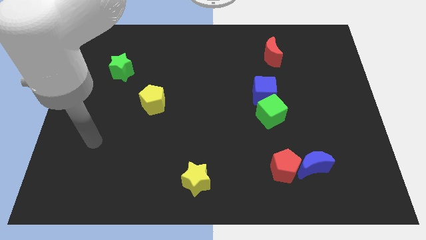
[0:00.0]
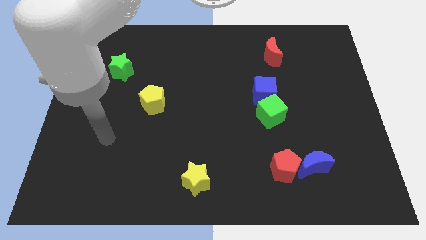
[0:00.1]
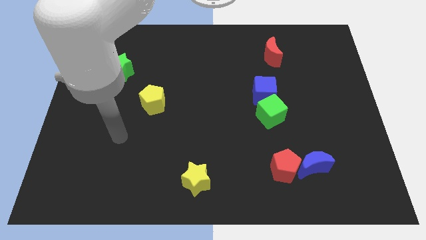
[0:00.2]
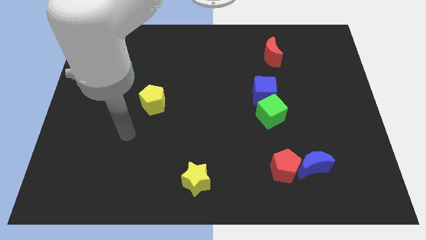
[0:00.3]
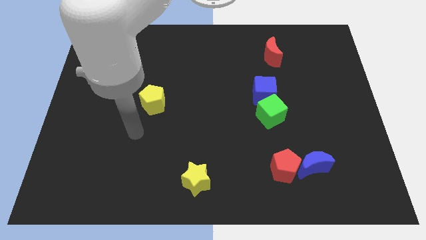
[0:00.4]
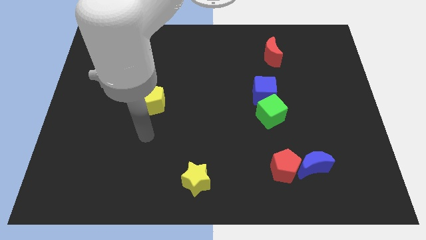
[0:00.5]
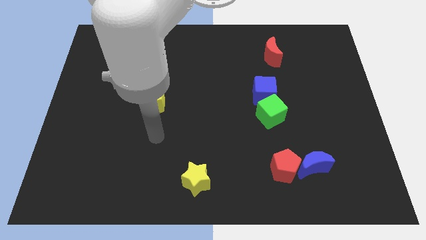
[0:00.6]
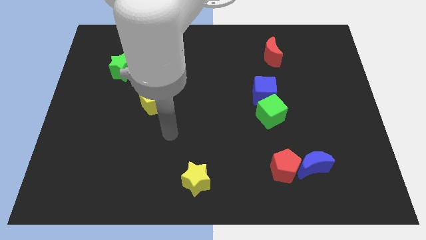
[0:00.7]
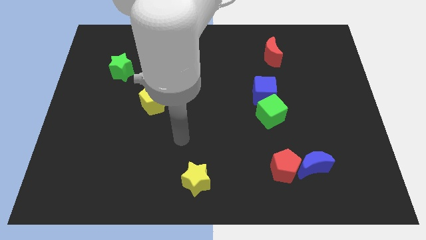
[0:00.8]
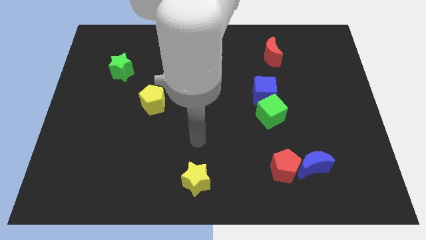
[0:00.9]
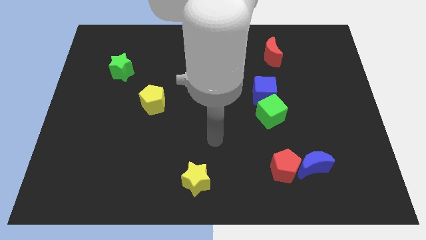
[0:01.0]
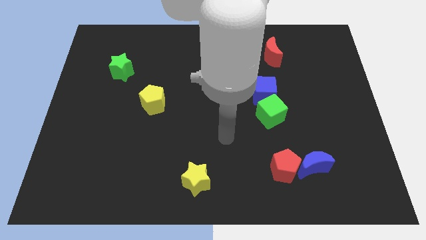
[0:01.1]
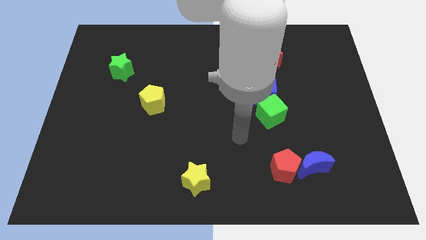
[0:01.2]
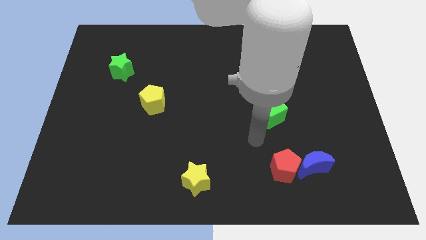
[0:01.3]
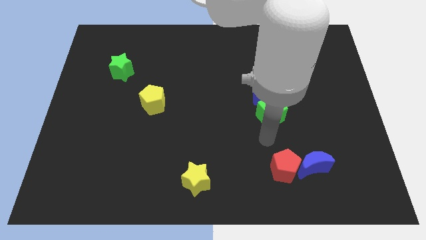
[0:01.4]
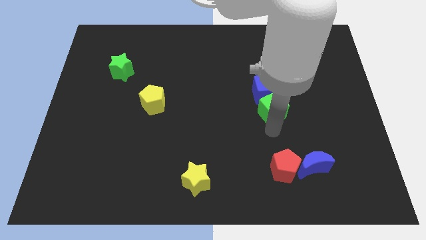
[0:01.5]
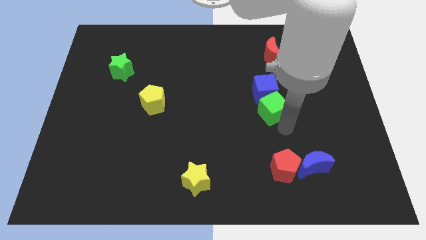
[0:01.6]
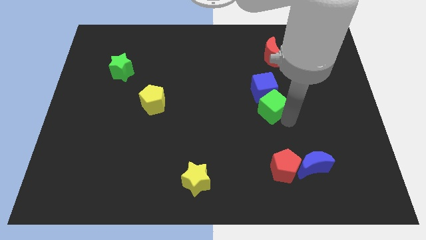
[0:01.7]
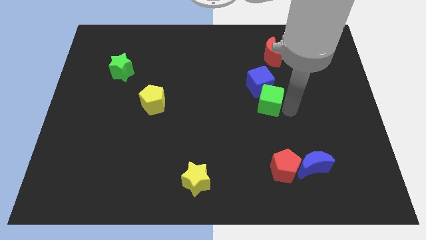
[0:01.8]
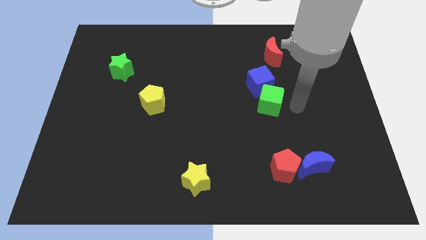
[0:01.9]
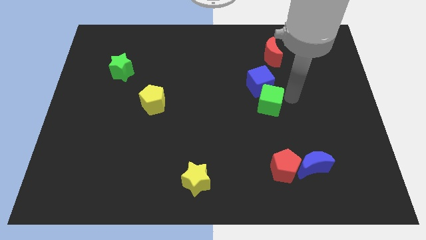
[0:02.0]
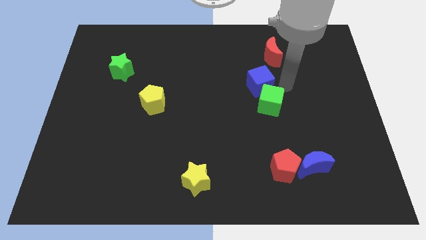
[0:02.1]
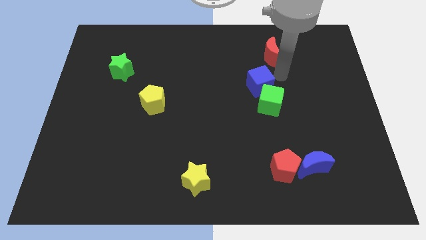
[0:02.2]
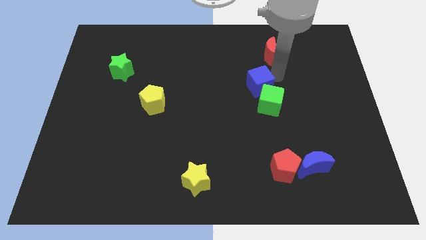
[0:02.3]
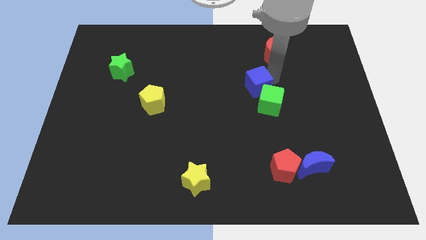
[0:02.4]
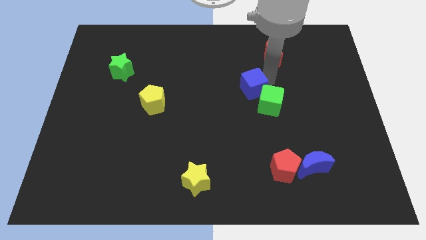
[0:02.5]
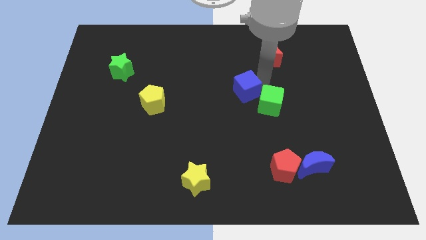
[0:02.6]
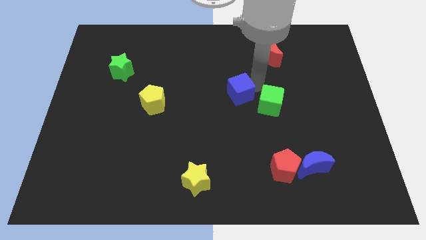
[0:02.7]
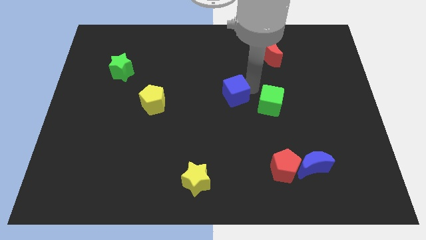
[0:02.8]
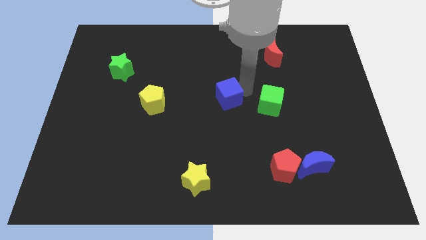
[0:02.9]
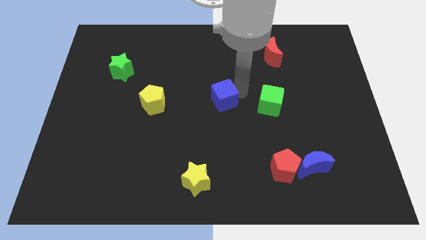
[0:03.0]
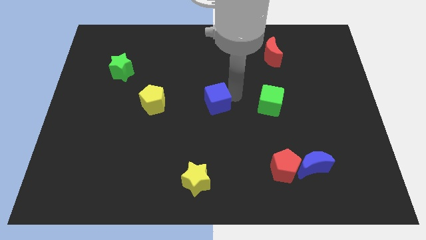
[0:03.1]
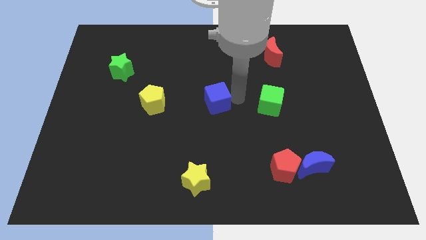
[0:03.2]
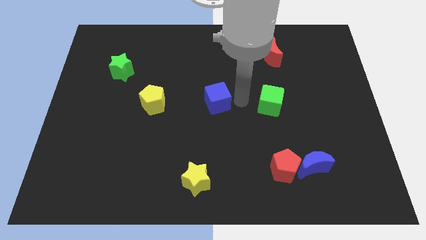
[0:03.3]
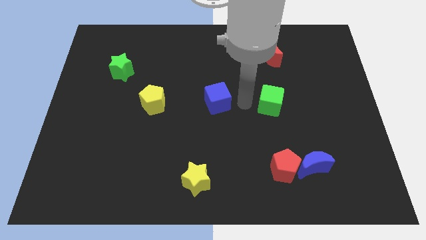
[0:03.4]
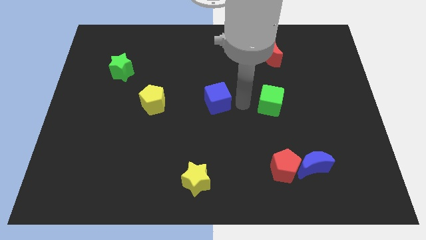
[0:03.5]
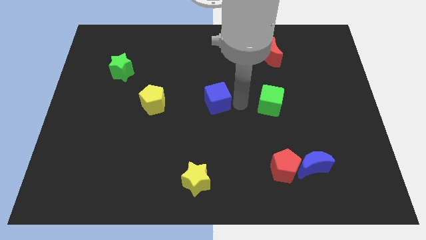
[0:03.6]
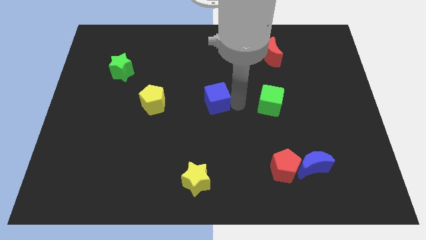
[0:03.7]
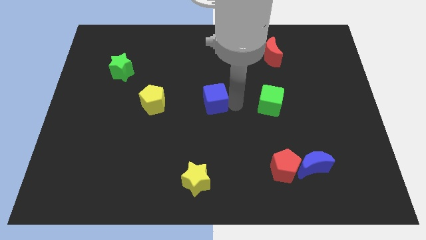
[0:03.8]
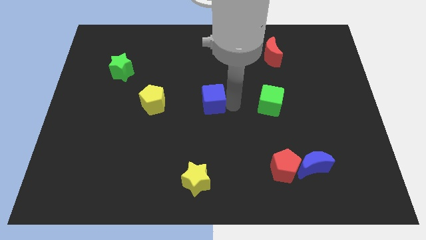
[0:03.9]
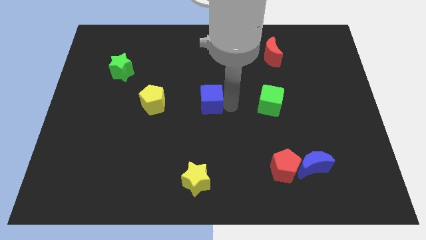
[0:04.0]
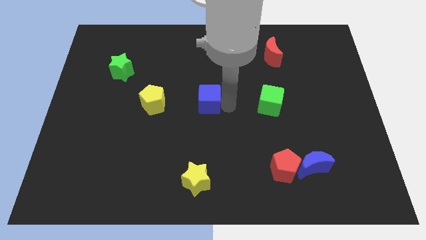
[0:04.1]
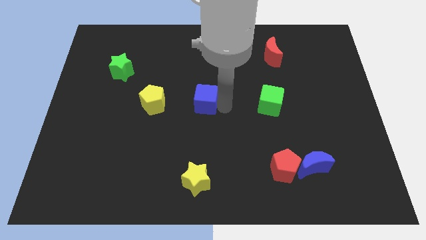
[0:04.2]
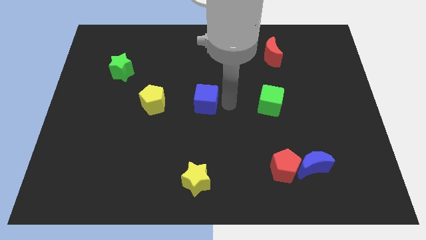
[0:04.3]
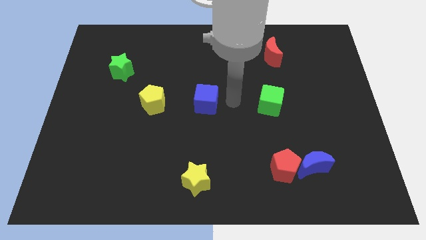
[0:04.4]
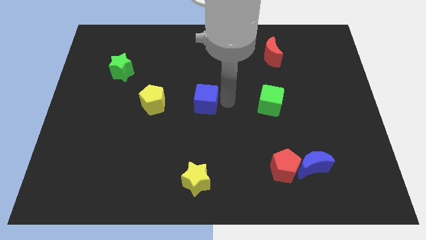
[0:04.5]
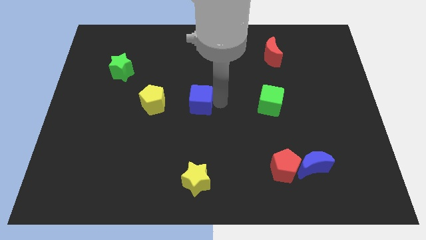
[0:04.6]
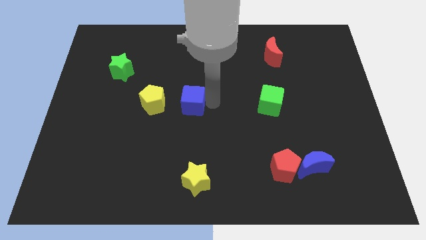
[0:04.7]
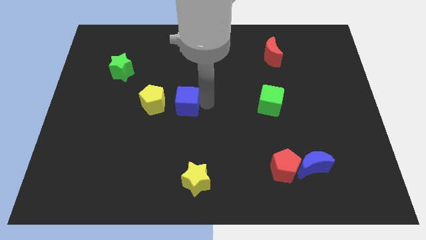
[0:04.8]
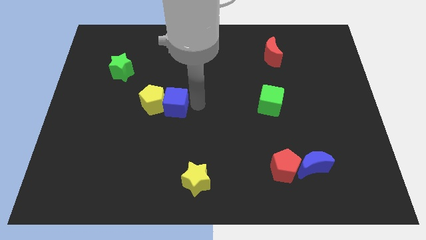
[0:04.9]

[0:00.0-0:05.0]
slide the blue cube close to the yellow pentagon

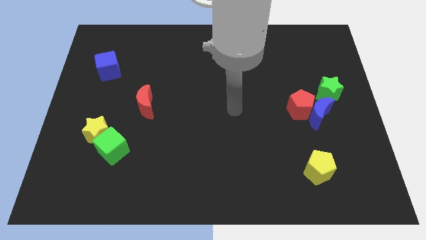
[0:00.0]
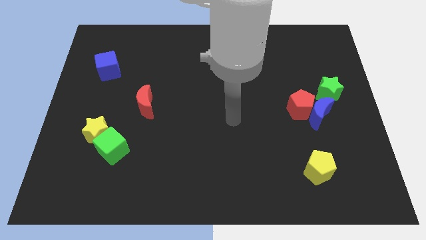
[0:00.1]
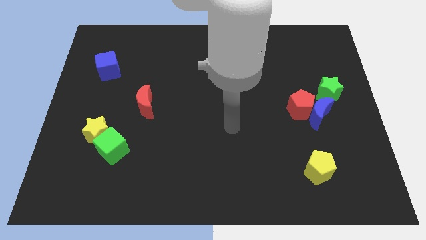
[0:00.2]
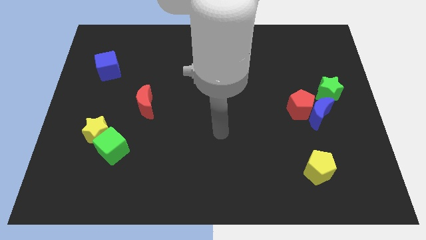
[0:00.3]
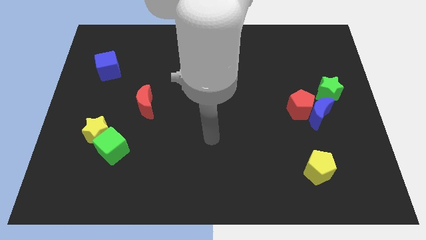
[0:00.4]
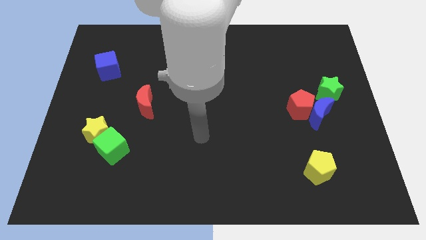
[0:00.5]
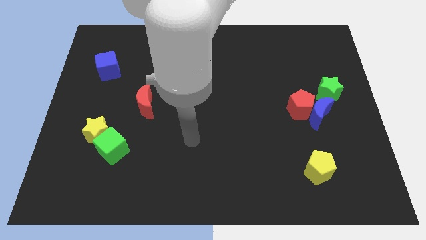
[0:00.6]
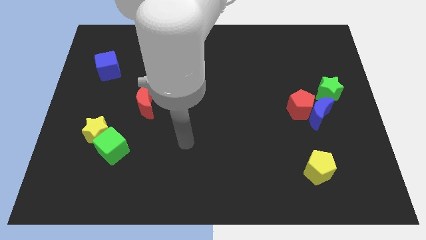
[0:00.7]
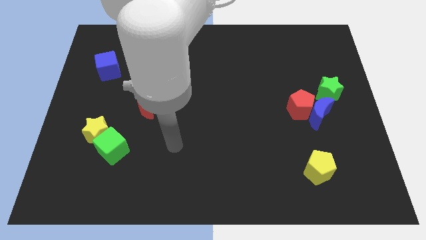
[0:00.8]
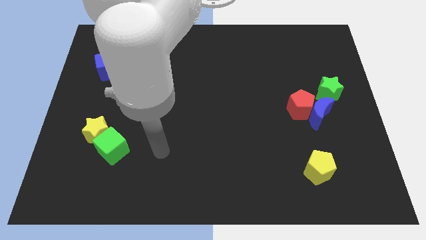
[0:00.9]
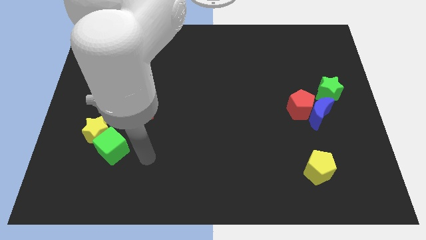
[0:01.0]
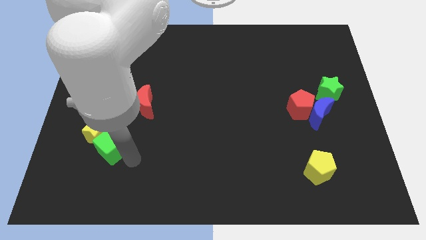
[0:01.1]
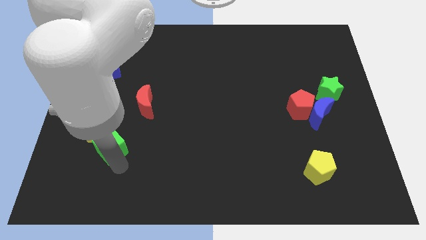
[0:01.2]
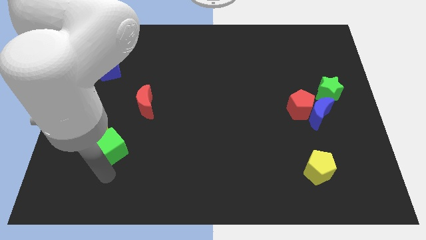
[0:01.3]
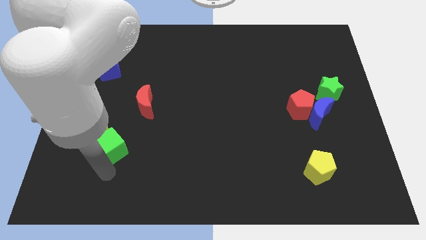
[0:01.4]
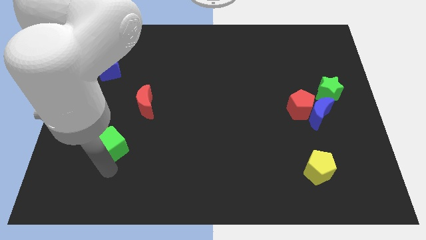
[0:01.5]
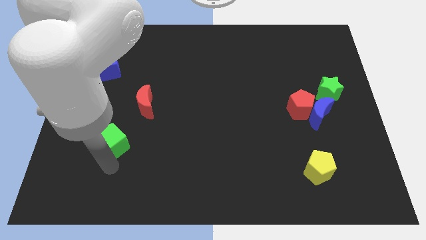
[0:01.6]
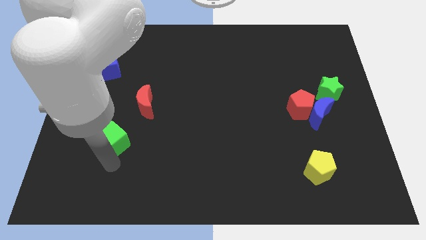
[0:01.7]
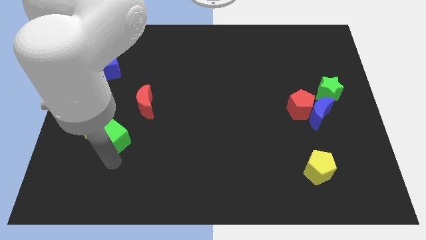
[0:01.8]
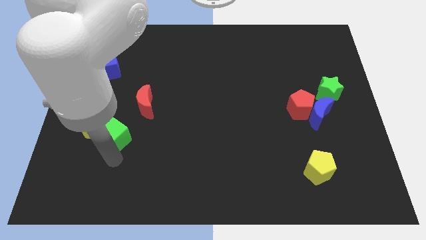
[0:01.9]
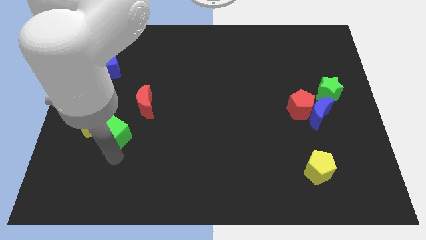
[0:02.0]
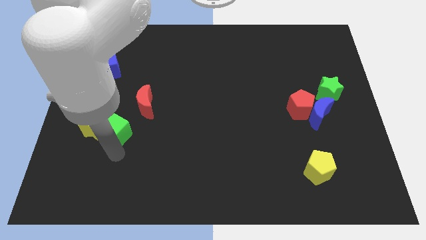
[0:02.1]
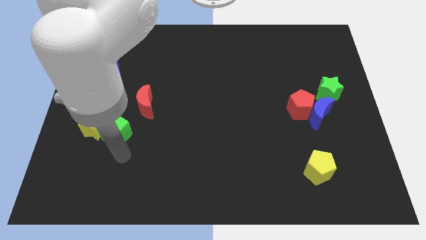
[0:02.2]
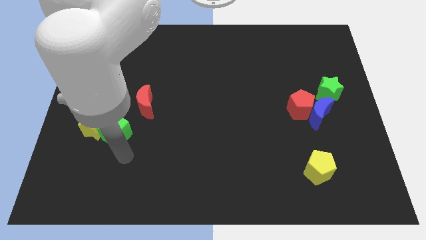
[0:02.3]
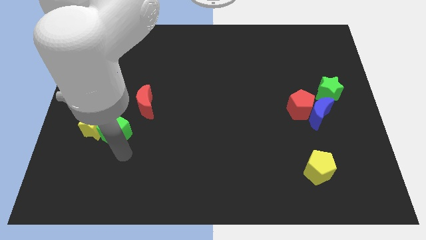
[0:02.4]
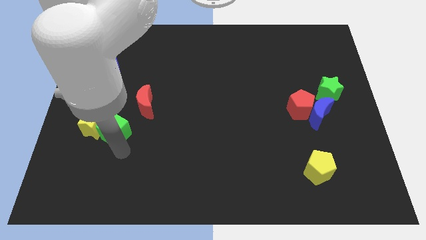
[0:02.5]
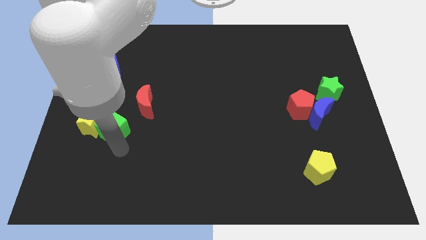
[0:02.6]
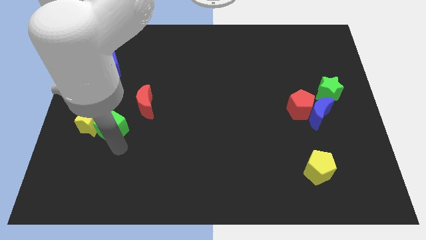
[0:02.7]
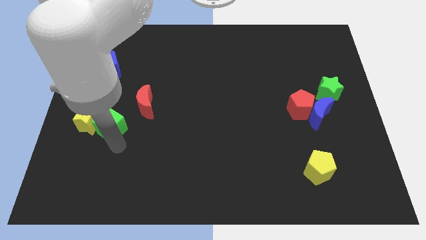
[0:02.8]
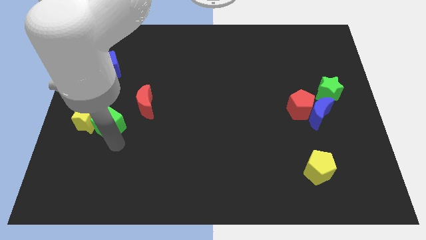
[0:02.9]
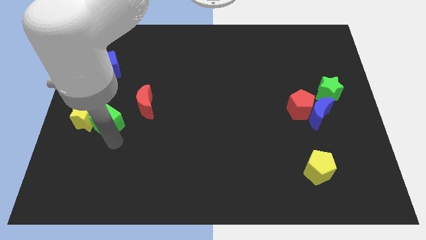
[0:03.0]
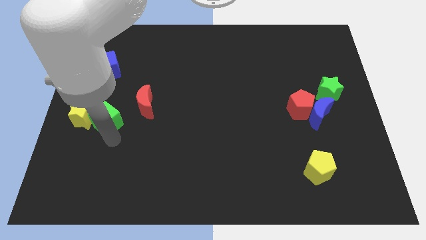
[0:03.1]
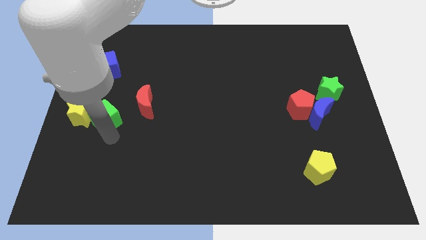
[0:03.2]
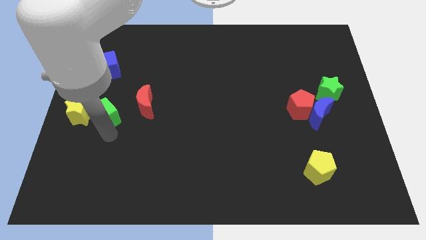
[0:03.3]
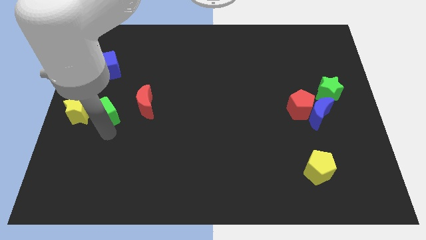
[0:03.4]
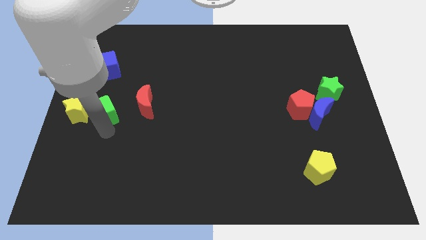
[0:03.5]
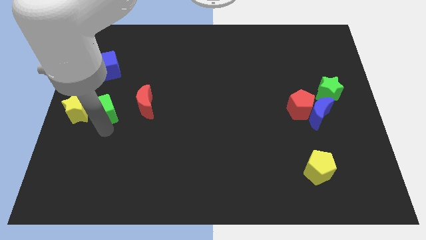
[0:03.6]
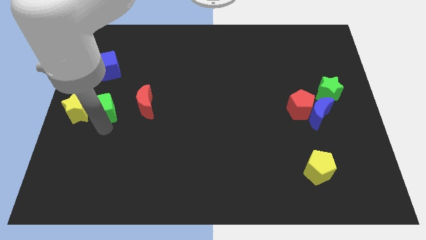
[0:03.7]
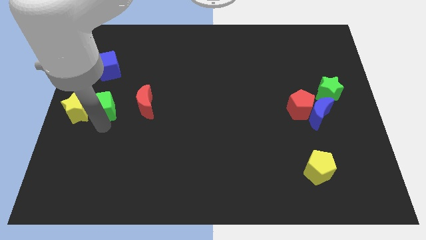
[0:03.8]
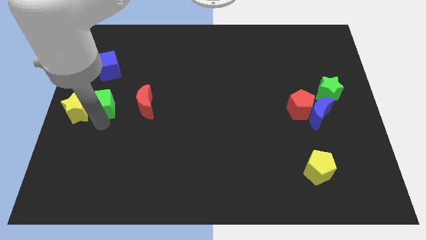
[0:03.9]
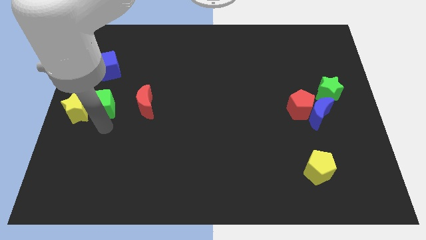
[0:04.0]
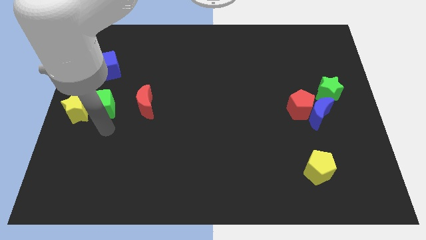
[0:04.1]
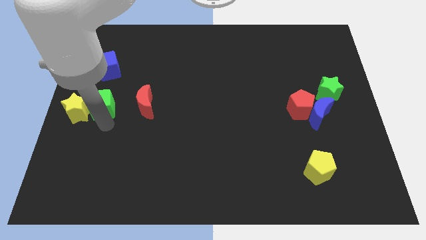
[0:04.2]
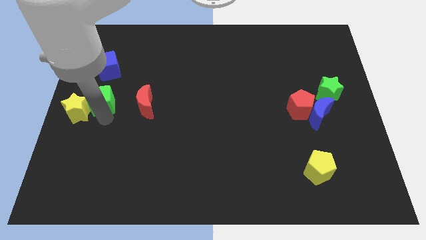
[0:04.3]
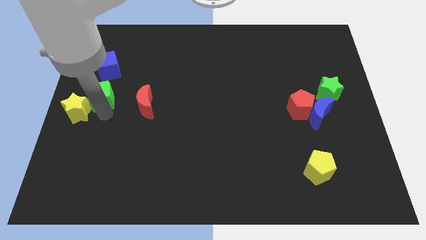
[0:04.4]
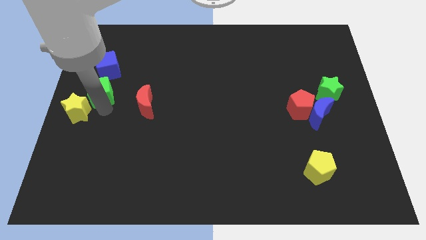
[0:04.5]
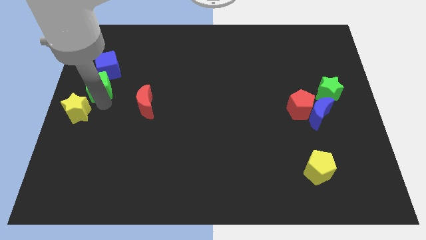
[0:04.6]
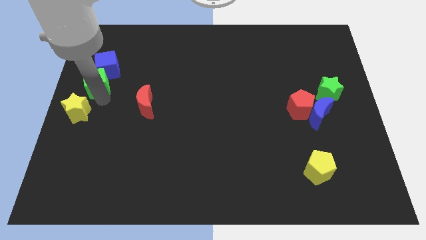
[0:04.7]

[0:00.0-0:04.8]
slide the green cube close to the blue cube
